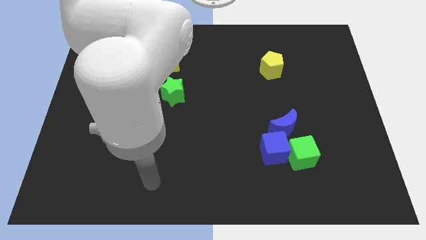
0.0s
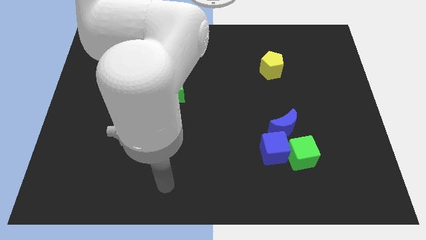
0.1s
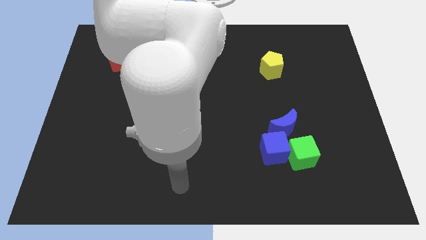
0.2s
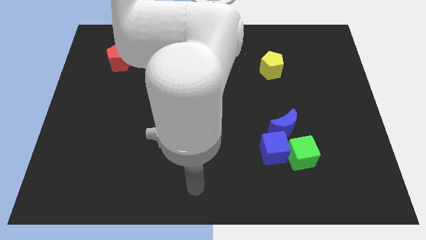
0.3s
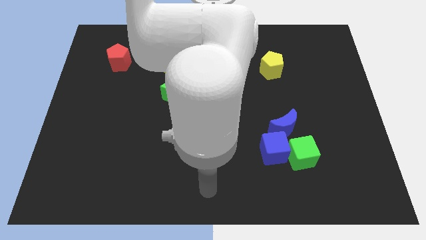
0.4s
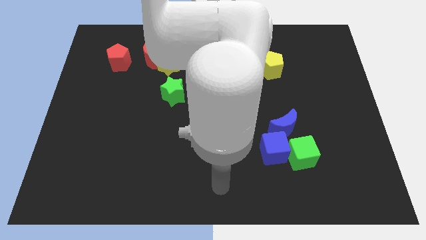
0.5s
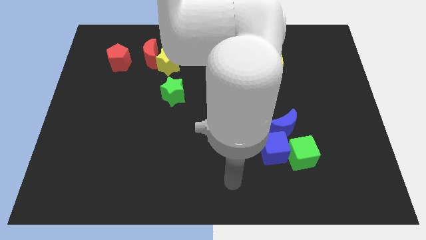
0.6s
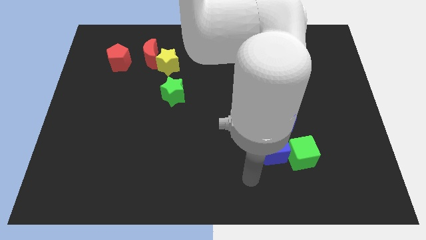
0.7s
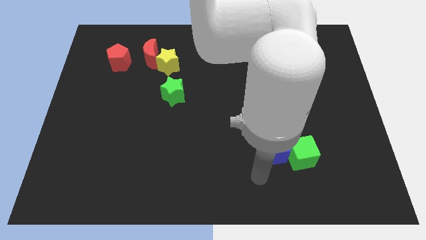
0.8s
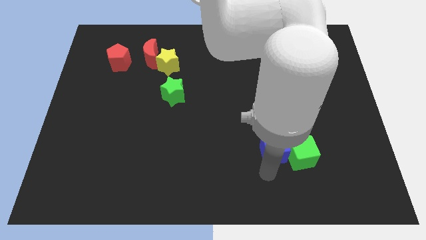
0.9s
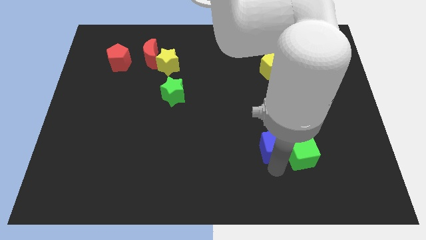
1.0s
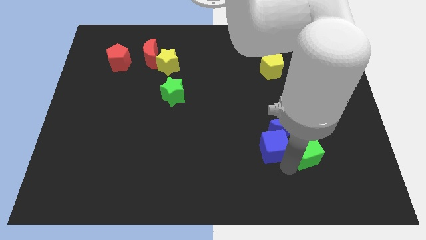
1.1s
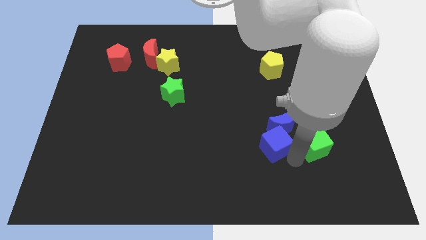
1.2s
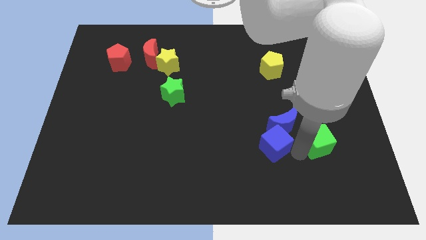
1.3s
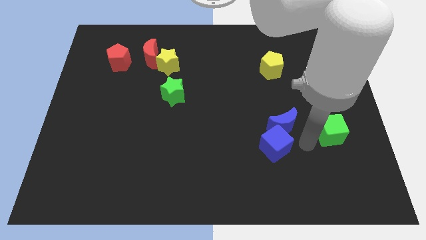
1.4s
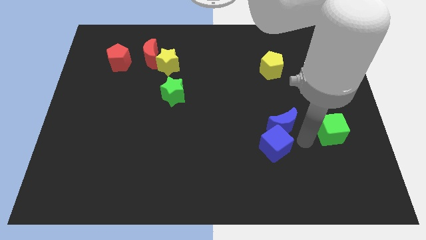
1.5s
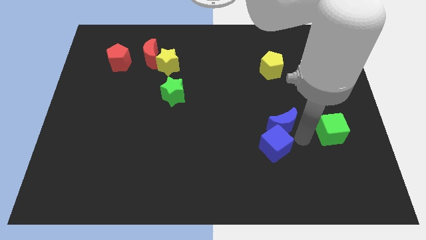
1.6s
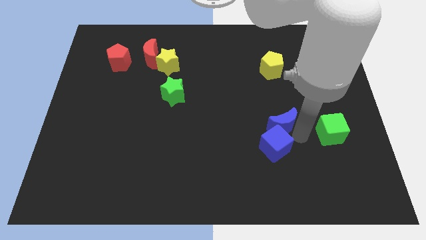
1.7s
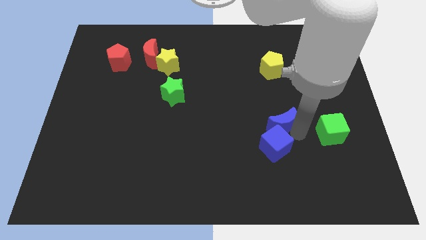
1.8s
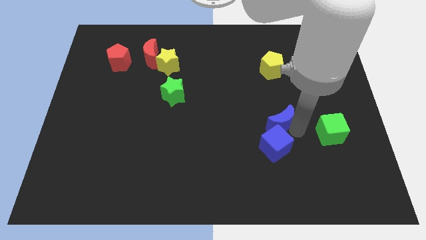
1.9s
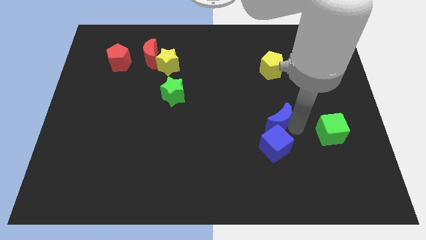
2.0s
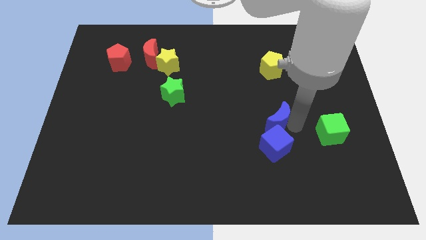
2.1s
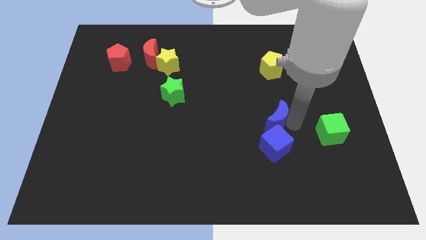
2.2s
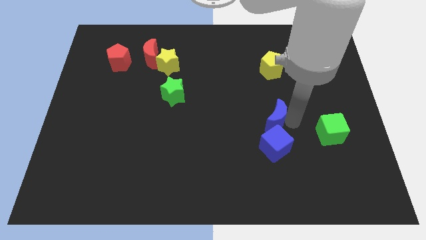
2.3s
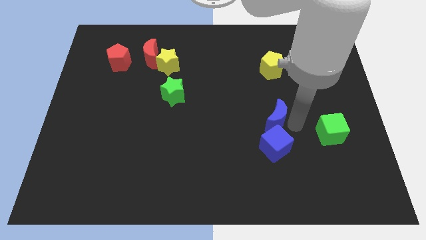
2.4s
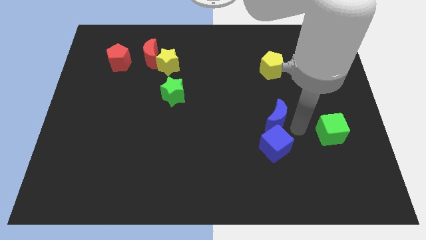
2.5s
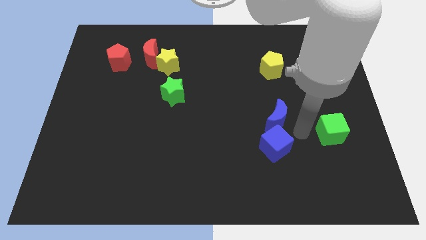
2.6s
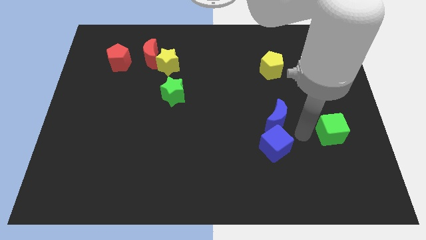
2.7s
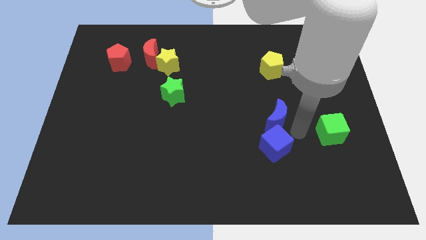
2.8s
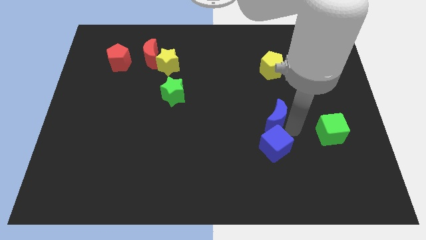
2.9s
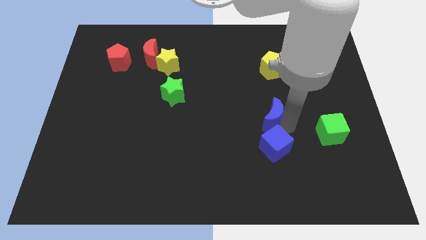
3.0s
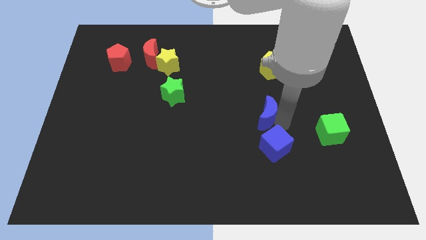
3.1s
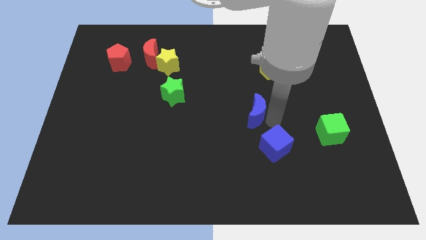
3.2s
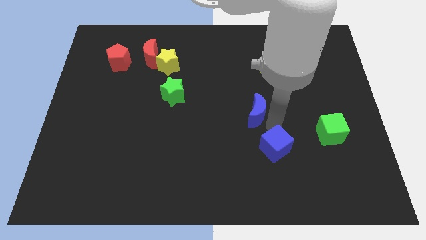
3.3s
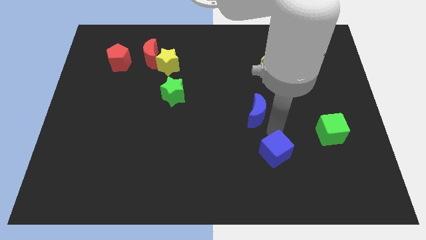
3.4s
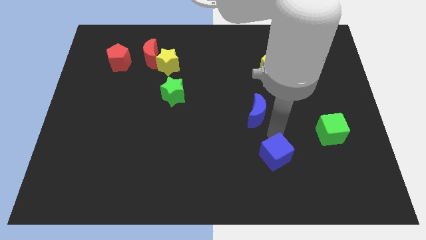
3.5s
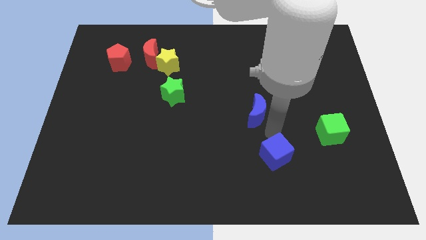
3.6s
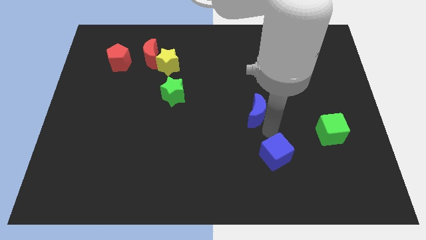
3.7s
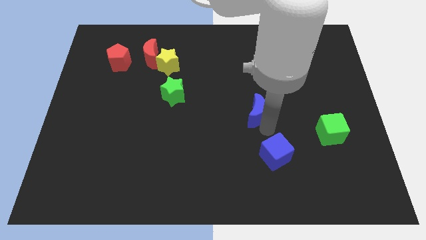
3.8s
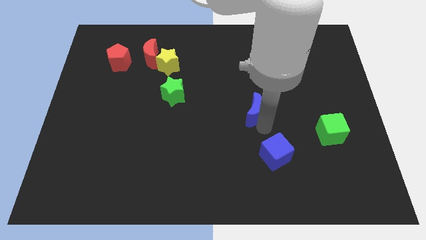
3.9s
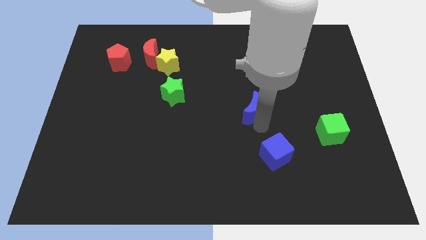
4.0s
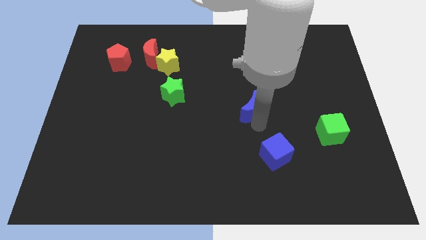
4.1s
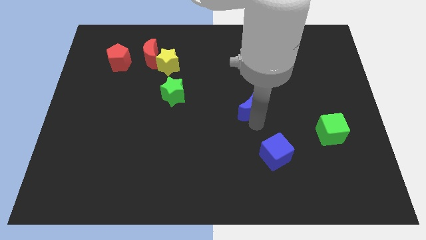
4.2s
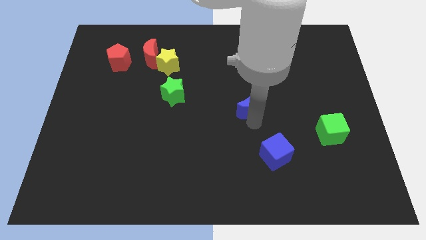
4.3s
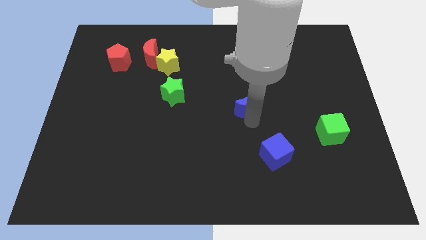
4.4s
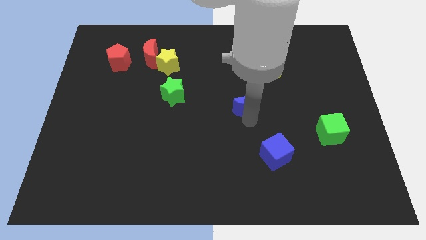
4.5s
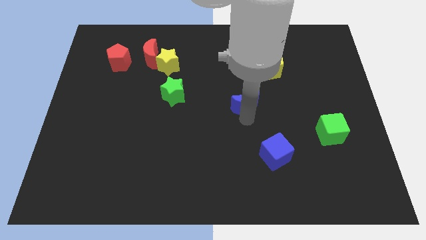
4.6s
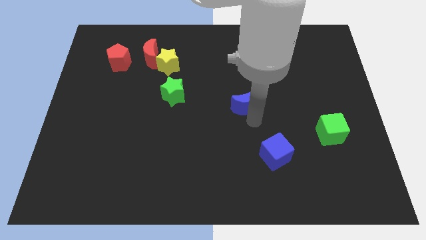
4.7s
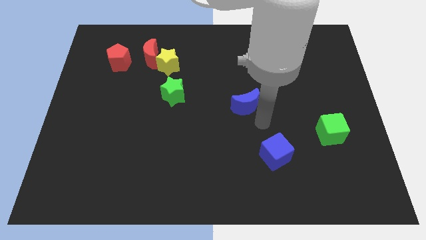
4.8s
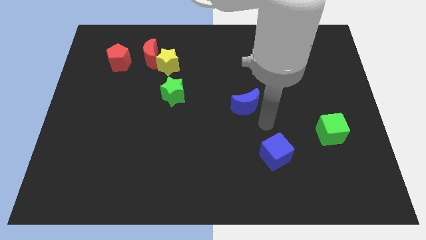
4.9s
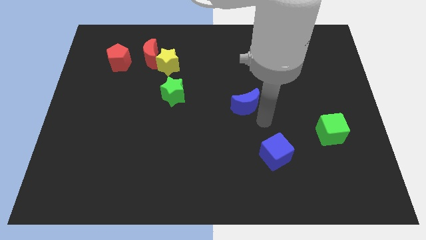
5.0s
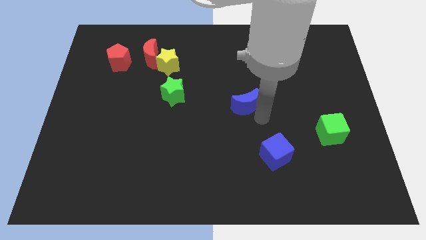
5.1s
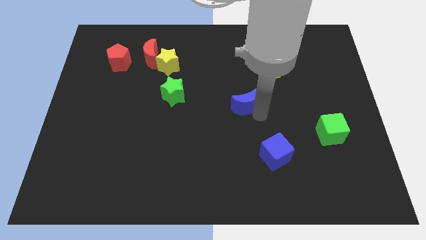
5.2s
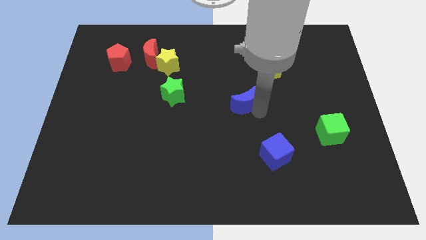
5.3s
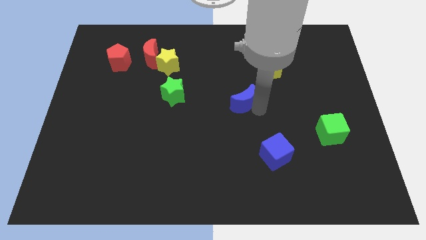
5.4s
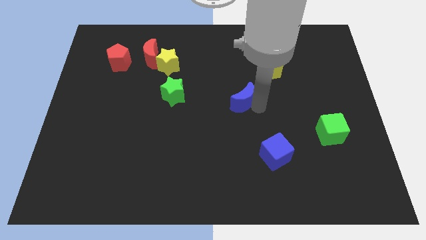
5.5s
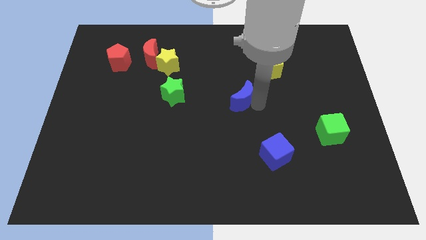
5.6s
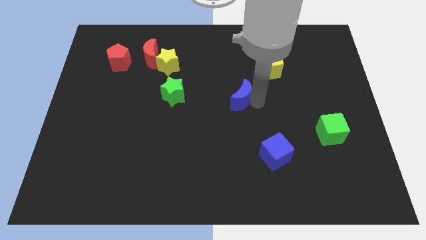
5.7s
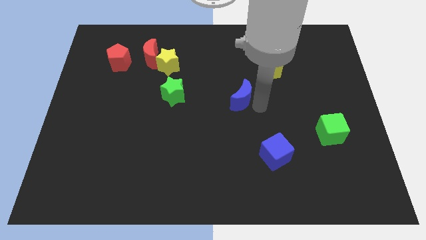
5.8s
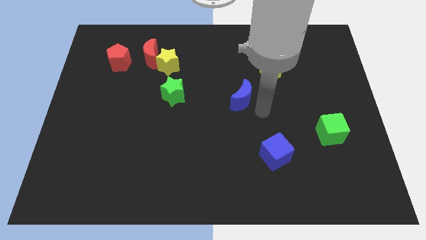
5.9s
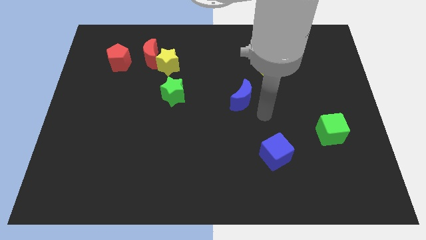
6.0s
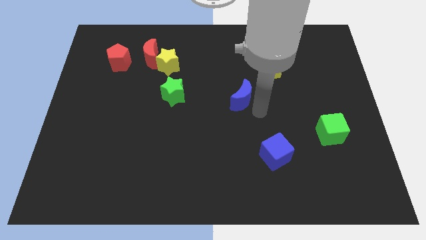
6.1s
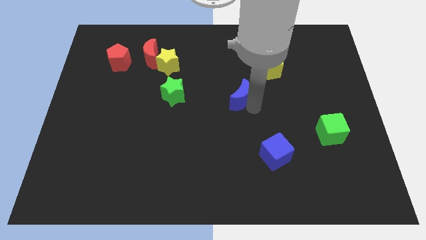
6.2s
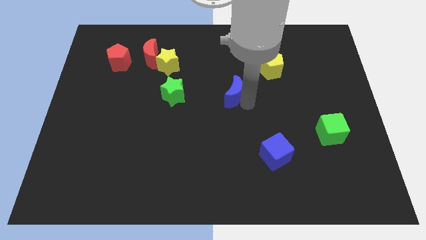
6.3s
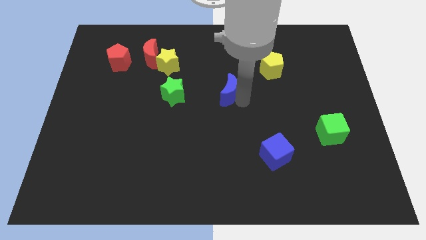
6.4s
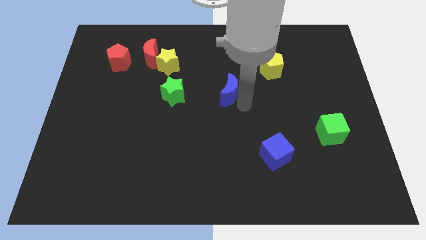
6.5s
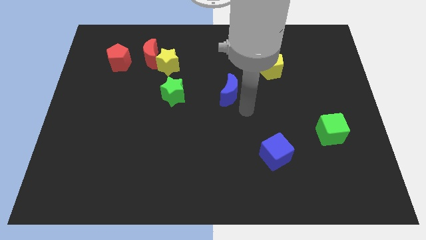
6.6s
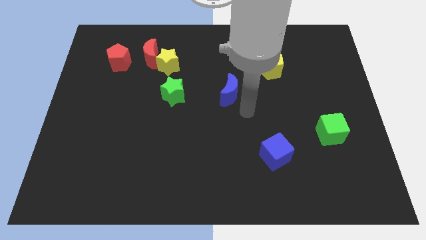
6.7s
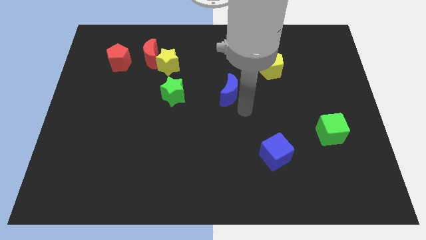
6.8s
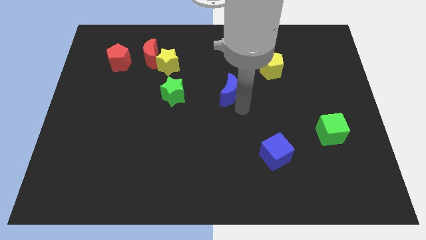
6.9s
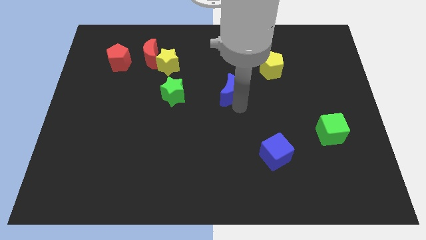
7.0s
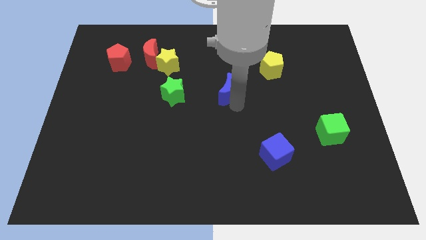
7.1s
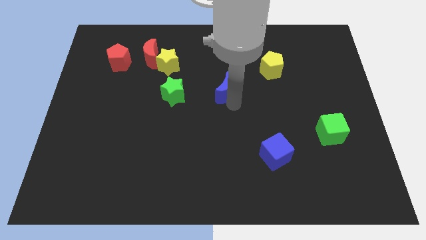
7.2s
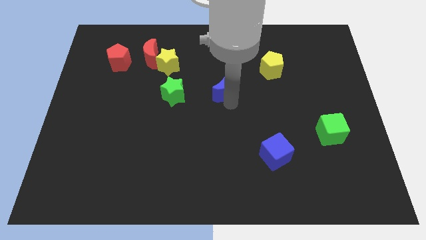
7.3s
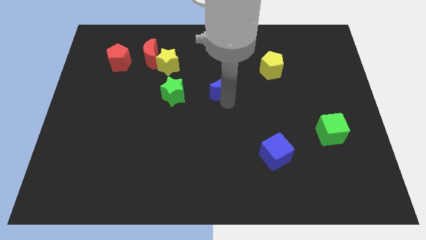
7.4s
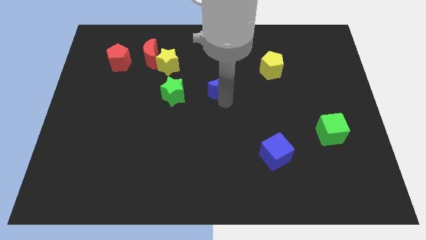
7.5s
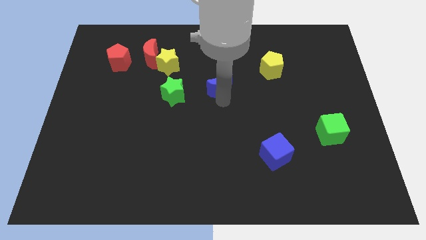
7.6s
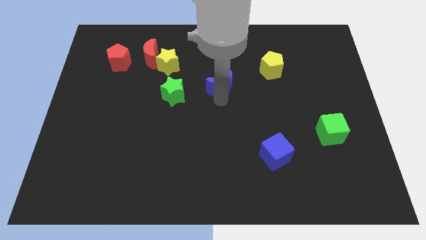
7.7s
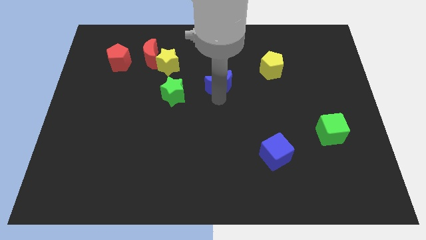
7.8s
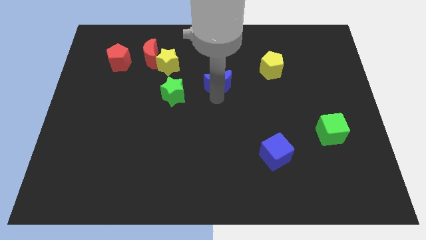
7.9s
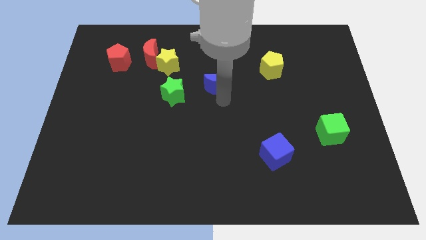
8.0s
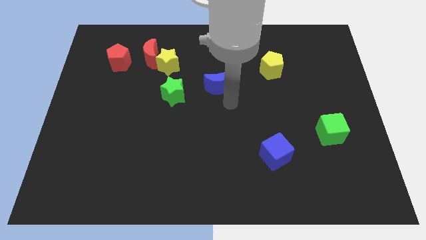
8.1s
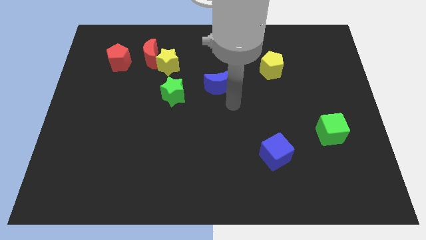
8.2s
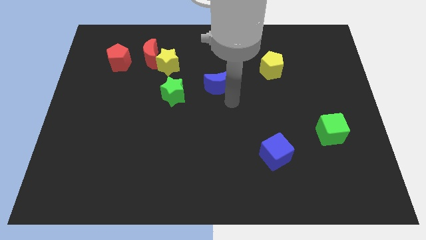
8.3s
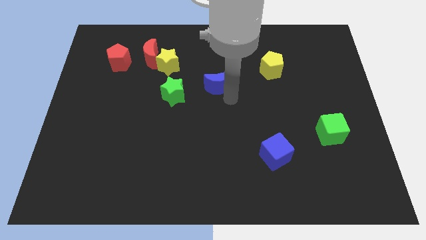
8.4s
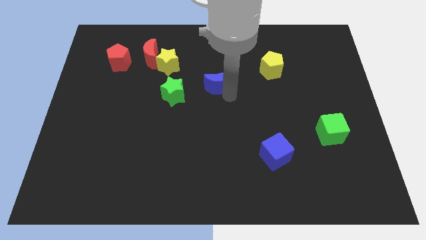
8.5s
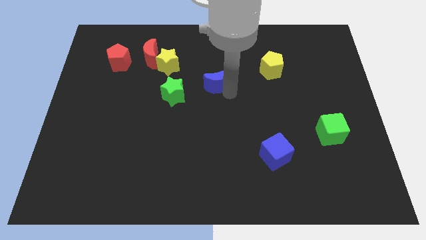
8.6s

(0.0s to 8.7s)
slide the blue moon up and left
